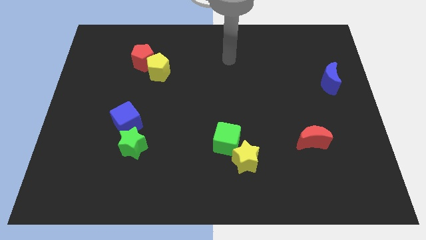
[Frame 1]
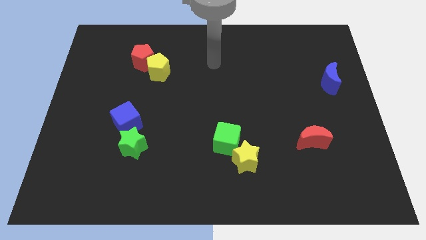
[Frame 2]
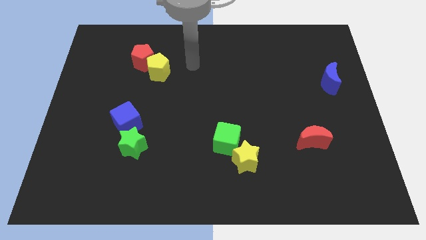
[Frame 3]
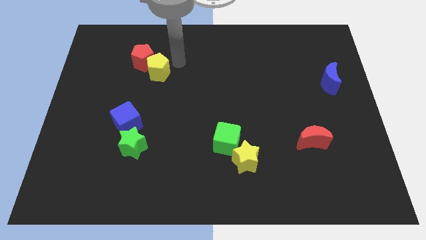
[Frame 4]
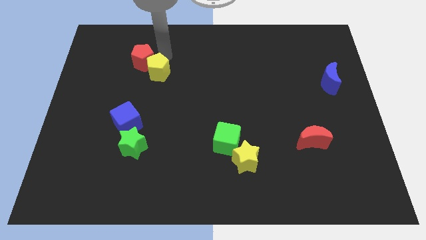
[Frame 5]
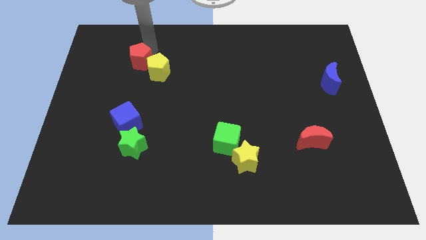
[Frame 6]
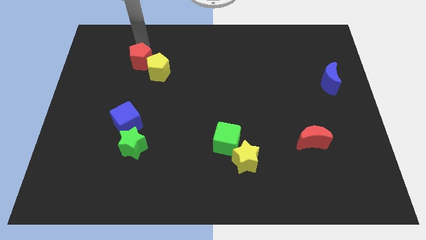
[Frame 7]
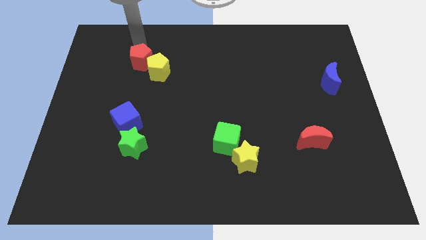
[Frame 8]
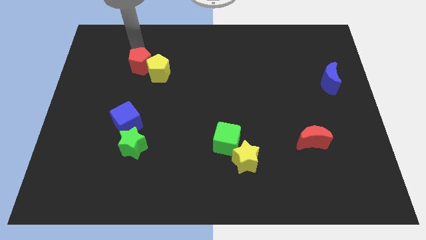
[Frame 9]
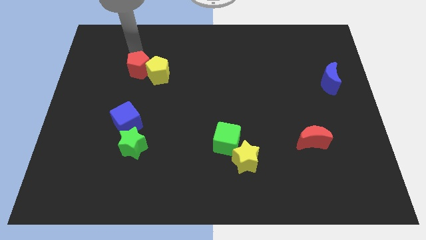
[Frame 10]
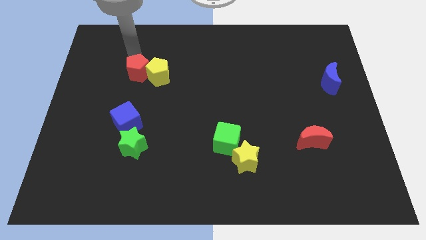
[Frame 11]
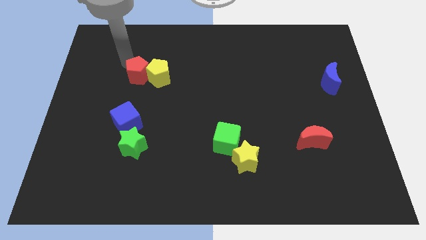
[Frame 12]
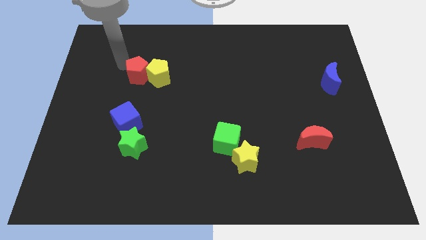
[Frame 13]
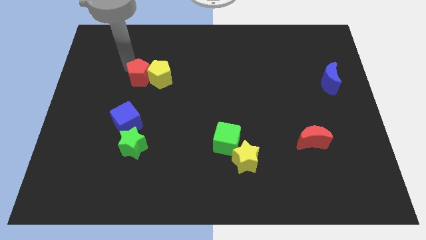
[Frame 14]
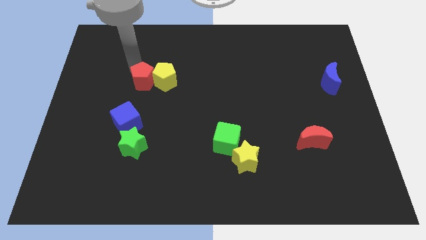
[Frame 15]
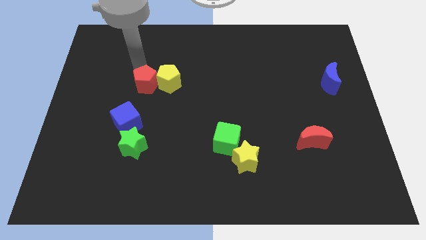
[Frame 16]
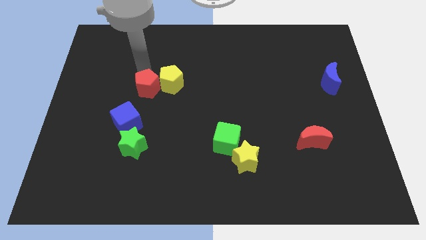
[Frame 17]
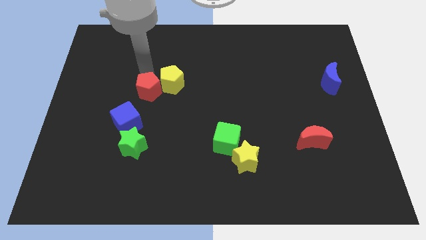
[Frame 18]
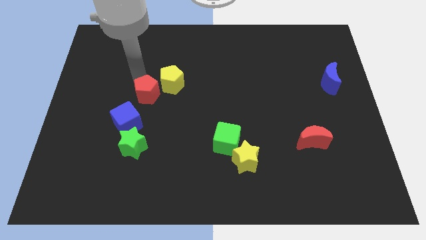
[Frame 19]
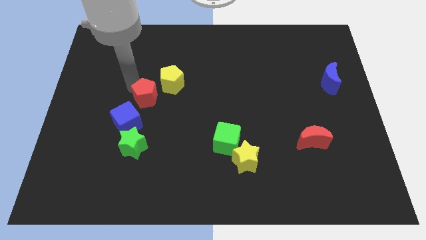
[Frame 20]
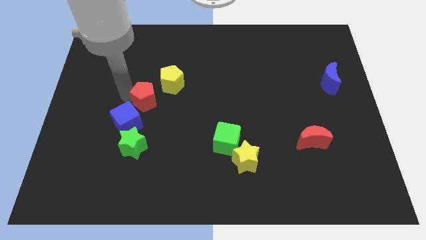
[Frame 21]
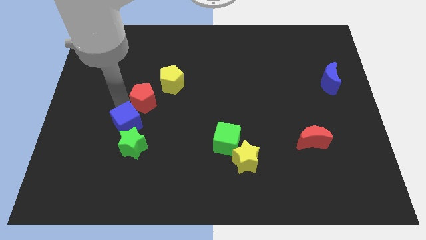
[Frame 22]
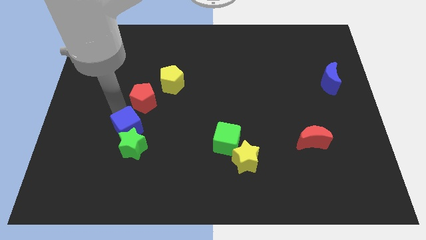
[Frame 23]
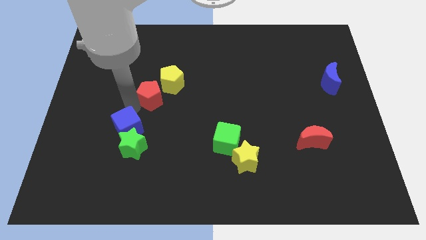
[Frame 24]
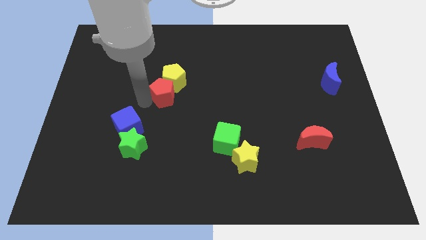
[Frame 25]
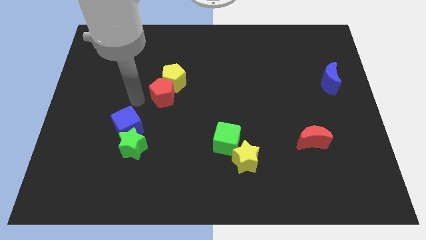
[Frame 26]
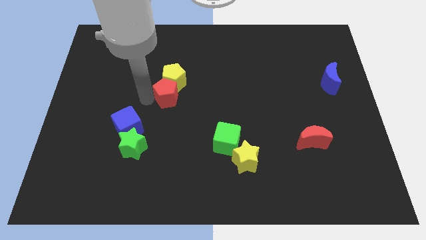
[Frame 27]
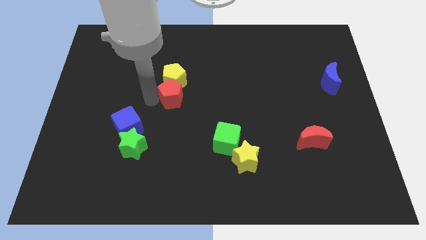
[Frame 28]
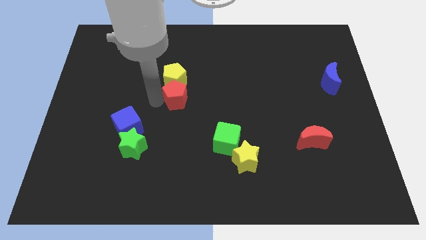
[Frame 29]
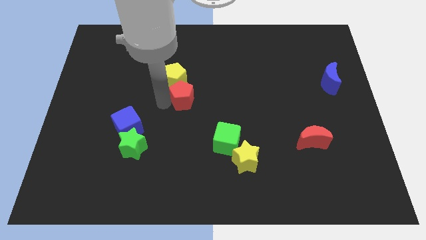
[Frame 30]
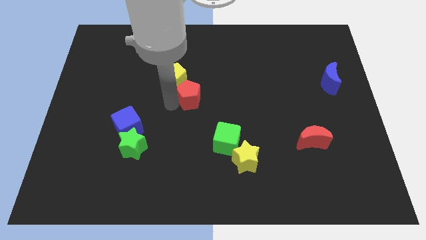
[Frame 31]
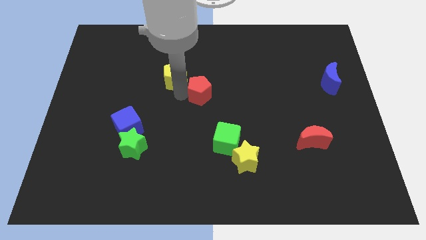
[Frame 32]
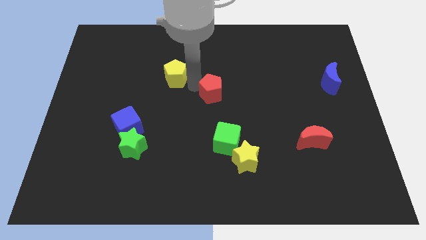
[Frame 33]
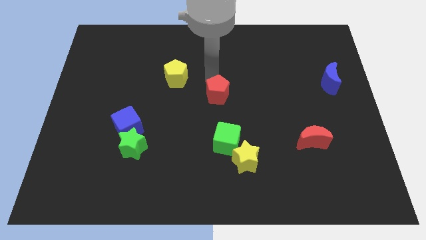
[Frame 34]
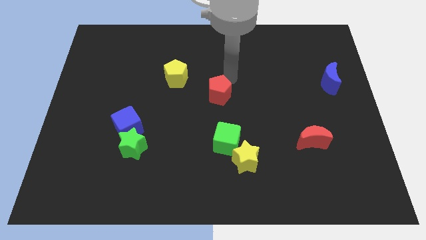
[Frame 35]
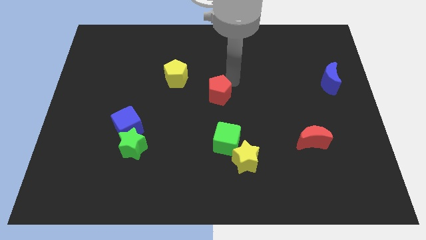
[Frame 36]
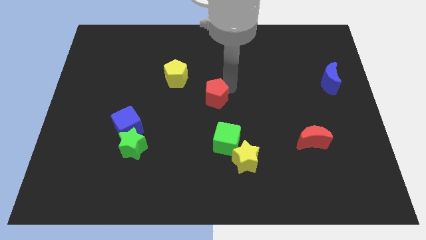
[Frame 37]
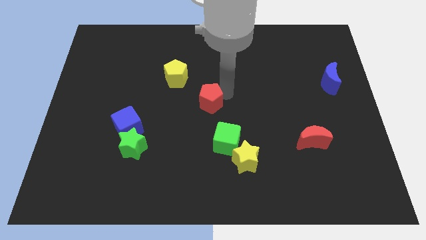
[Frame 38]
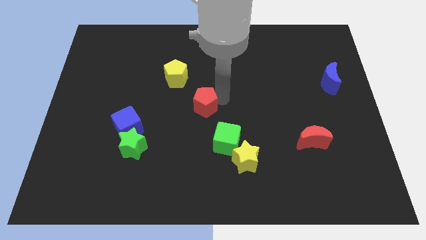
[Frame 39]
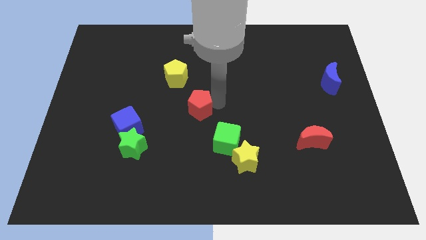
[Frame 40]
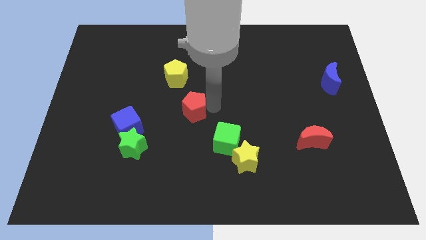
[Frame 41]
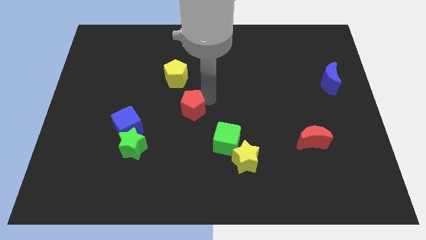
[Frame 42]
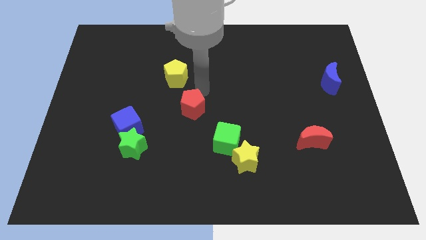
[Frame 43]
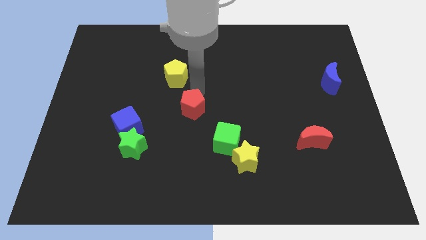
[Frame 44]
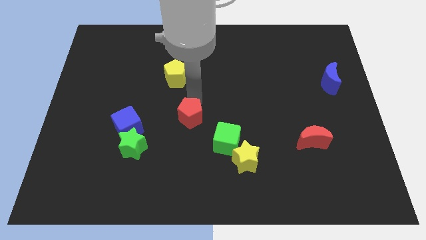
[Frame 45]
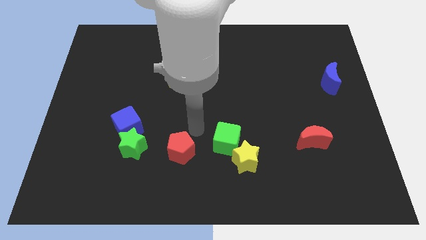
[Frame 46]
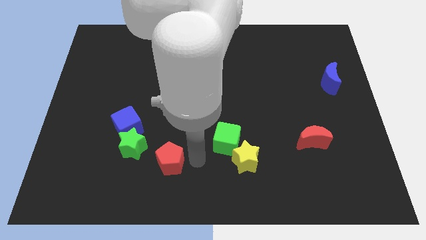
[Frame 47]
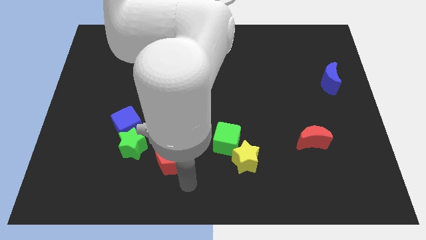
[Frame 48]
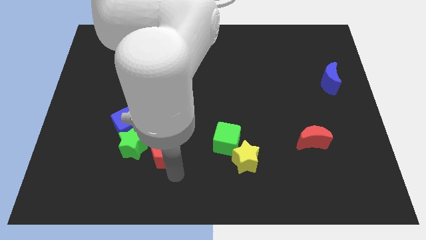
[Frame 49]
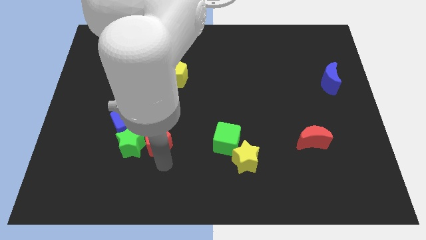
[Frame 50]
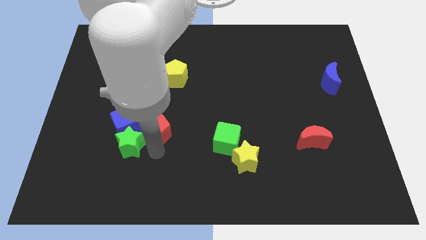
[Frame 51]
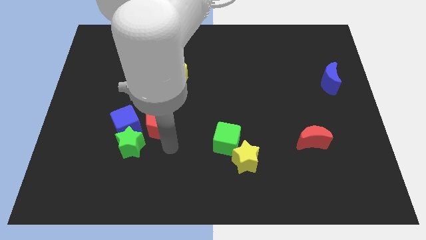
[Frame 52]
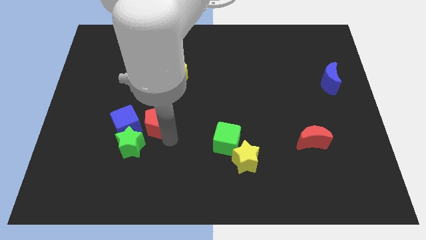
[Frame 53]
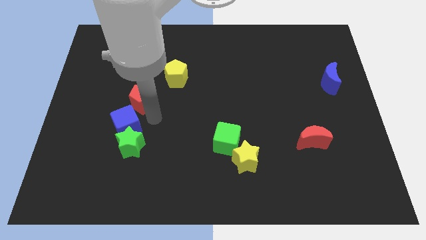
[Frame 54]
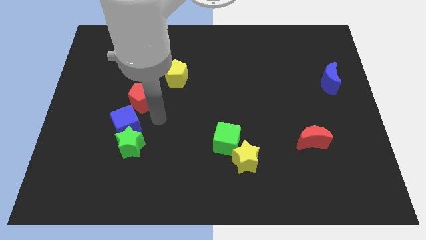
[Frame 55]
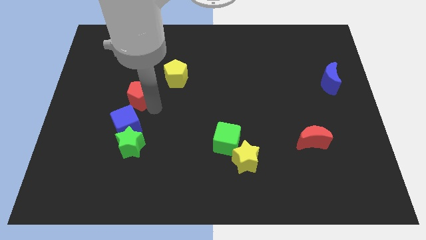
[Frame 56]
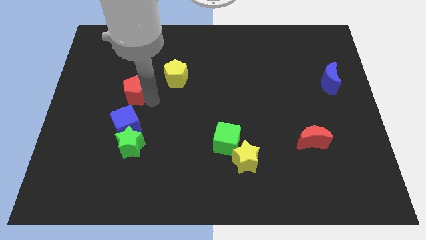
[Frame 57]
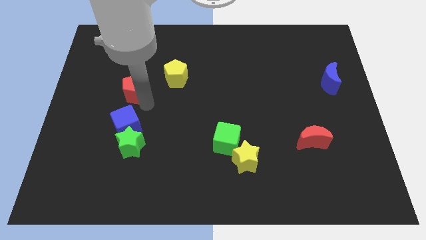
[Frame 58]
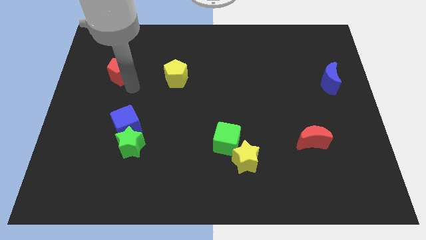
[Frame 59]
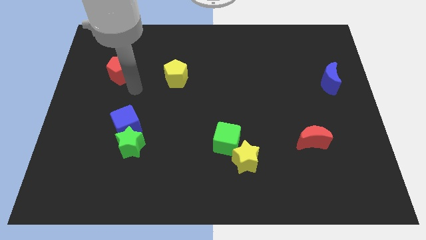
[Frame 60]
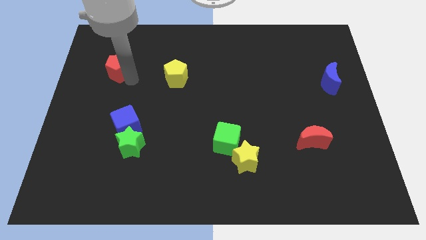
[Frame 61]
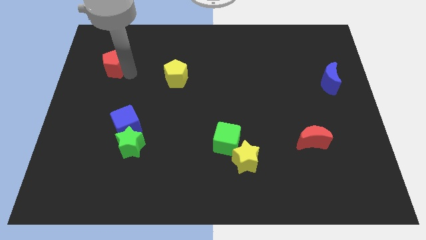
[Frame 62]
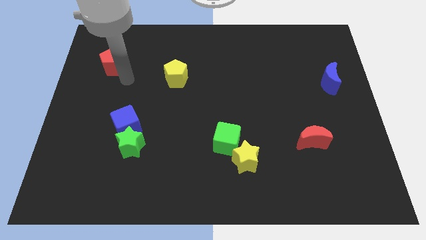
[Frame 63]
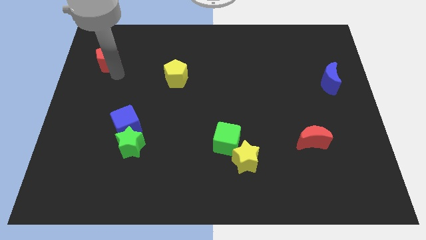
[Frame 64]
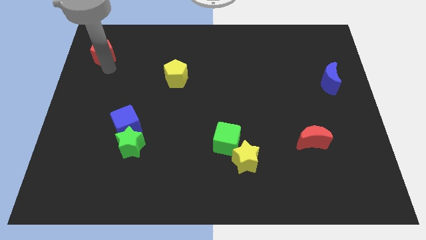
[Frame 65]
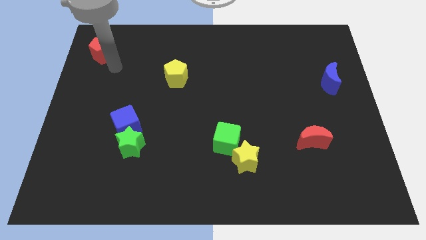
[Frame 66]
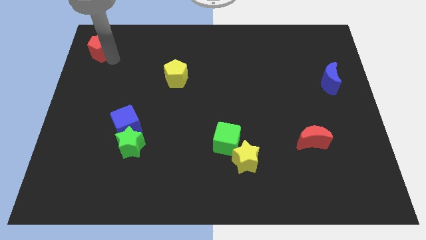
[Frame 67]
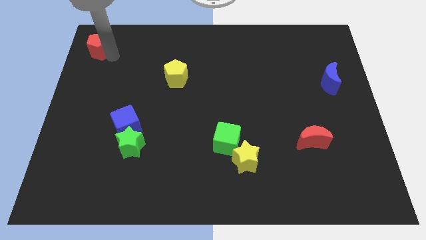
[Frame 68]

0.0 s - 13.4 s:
push the red pentagon to the top left
